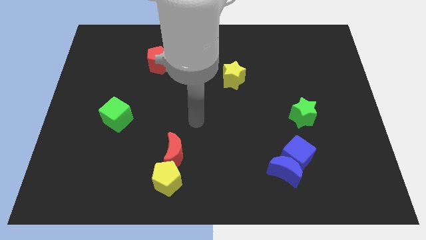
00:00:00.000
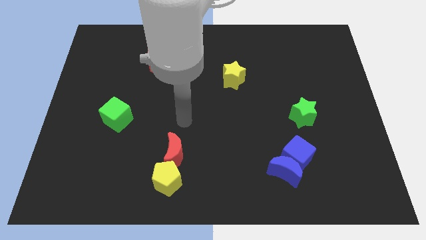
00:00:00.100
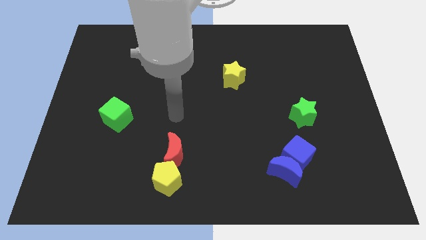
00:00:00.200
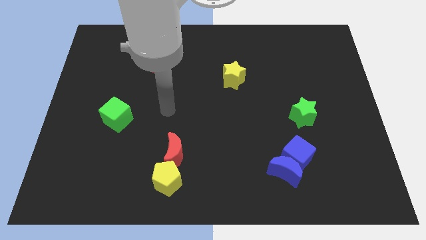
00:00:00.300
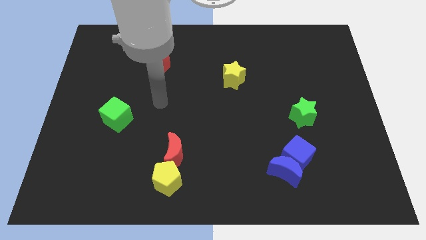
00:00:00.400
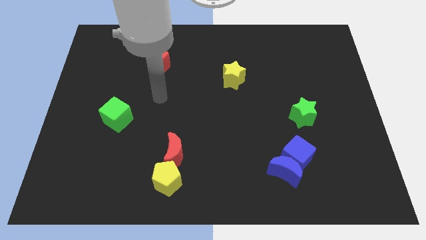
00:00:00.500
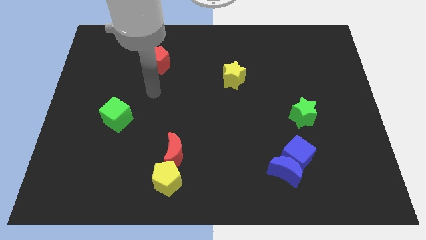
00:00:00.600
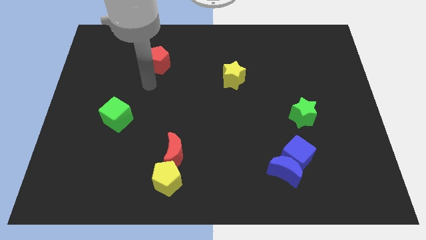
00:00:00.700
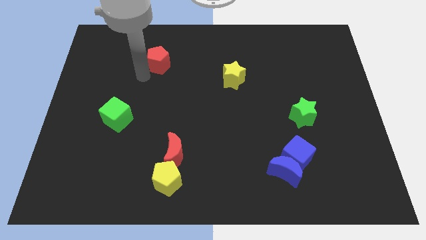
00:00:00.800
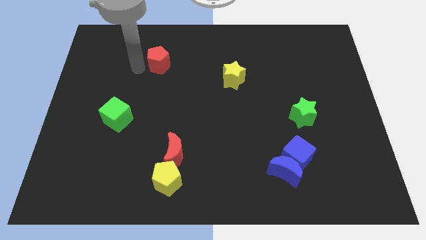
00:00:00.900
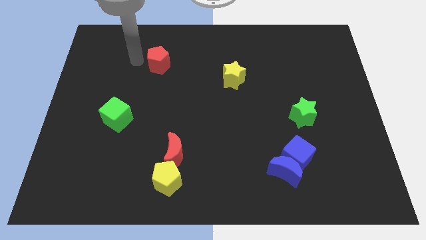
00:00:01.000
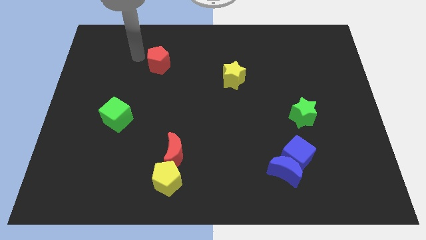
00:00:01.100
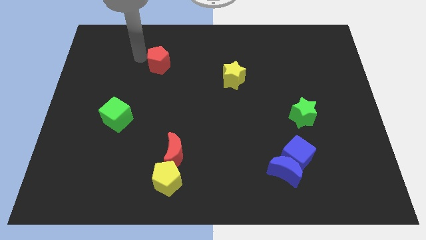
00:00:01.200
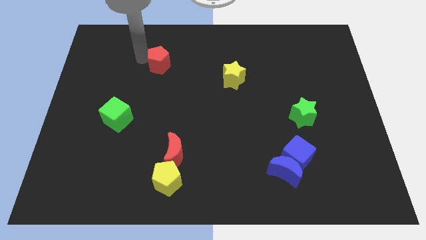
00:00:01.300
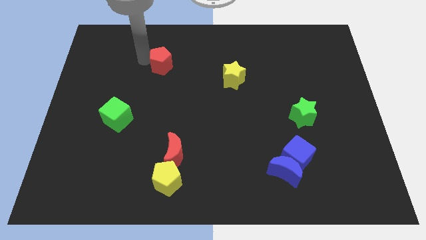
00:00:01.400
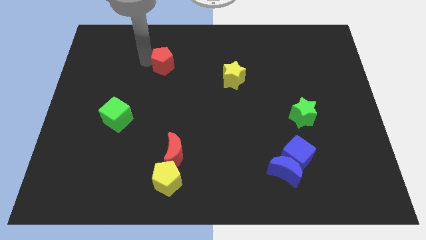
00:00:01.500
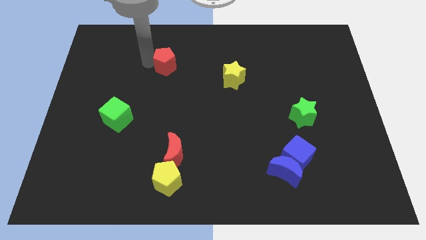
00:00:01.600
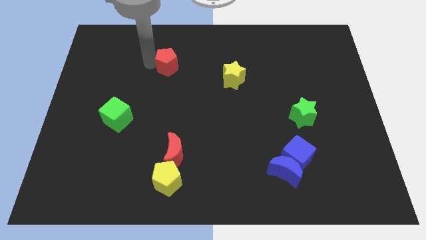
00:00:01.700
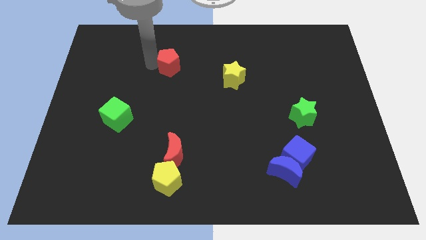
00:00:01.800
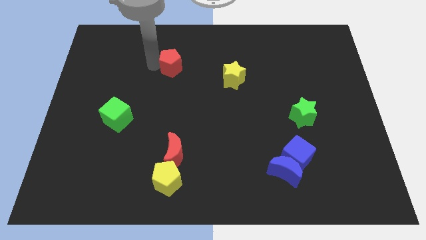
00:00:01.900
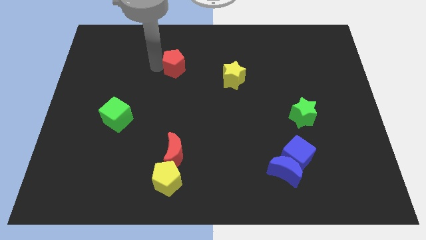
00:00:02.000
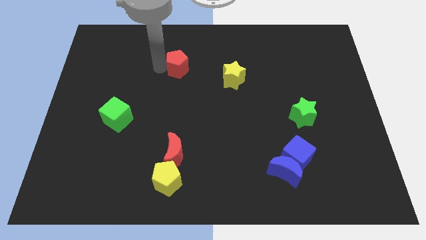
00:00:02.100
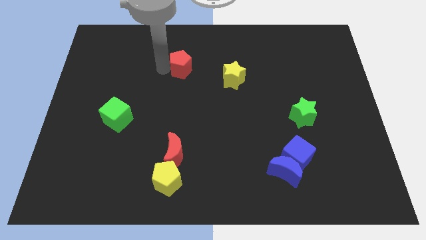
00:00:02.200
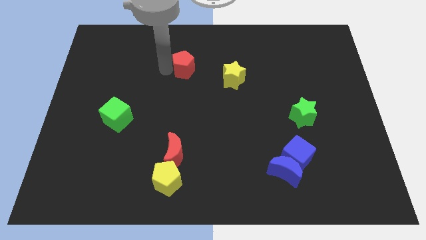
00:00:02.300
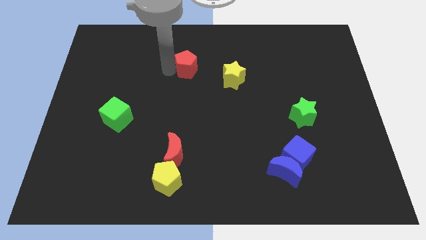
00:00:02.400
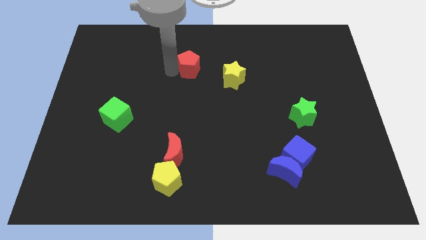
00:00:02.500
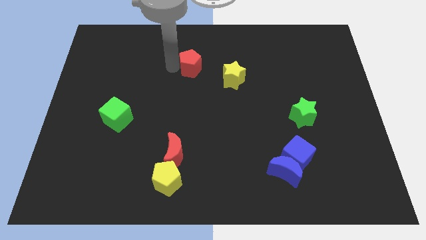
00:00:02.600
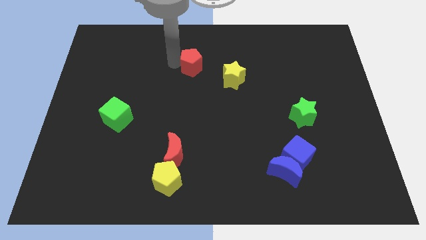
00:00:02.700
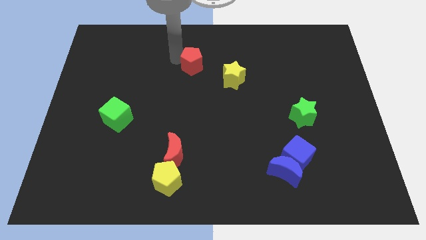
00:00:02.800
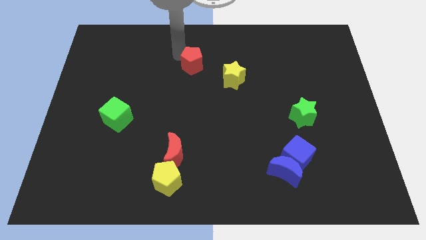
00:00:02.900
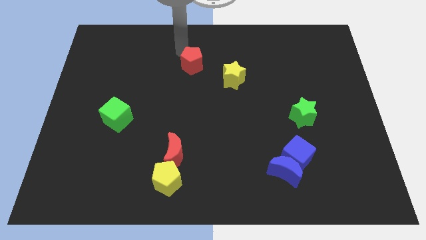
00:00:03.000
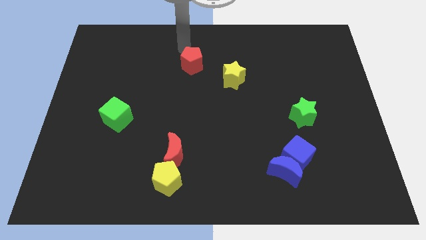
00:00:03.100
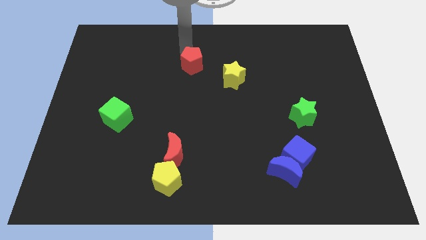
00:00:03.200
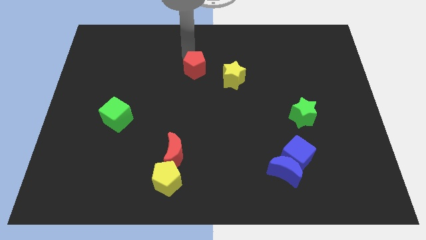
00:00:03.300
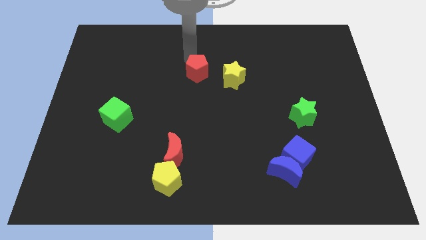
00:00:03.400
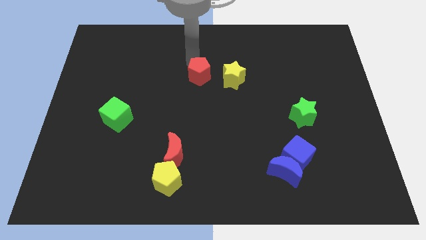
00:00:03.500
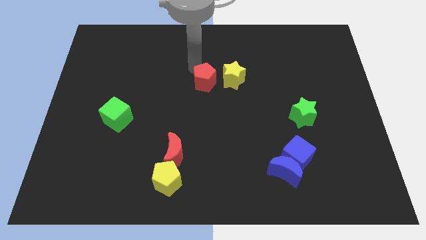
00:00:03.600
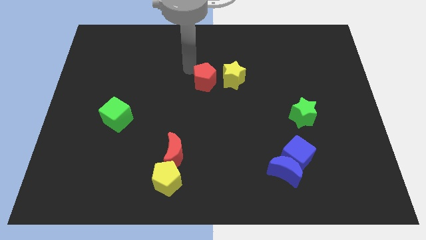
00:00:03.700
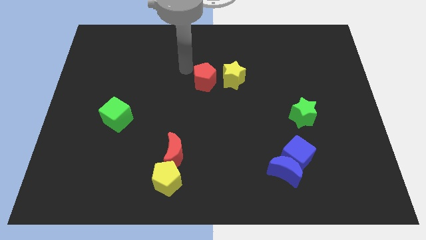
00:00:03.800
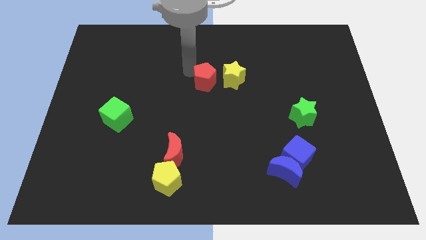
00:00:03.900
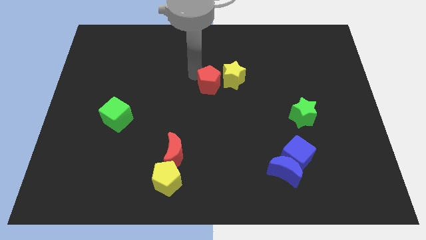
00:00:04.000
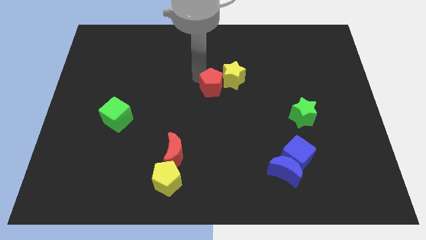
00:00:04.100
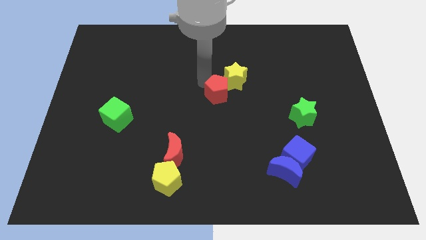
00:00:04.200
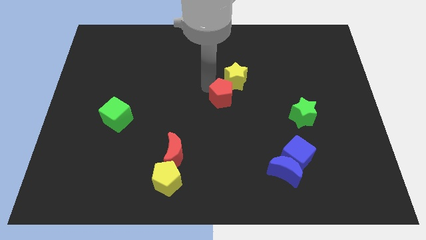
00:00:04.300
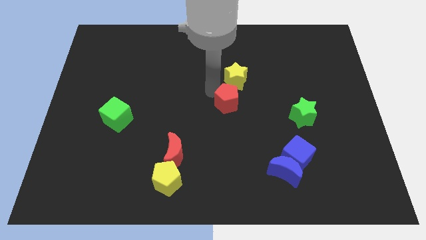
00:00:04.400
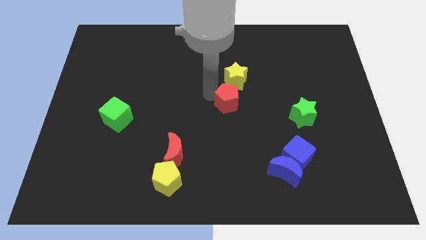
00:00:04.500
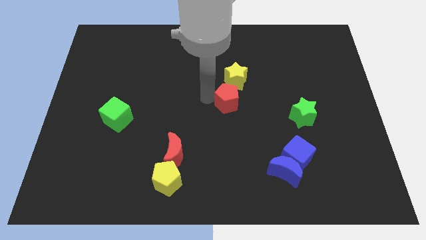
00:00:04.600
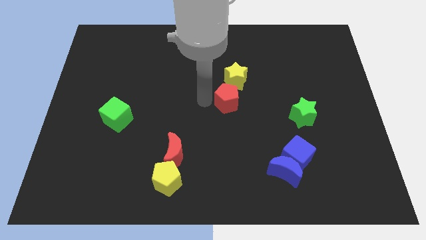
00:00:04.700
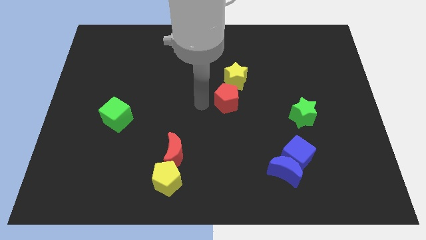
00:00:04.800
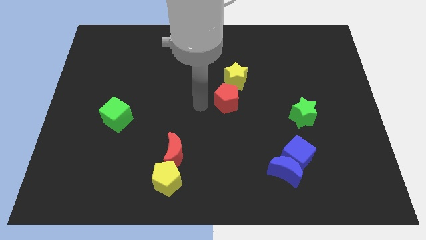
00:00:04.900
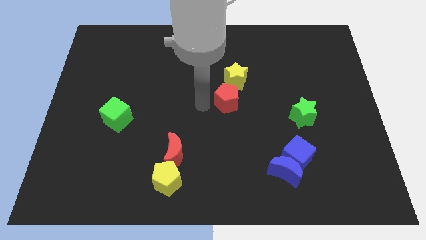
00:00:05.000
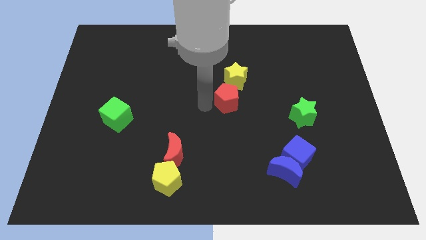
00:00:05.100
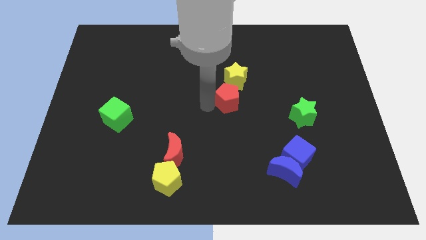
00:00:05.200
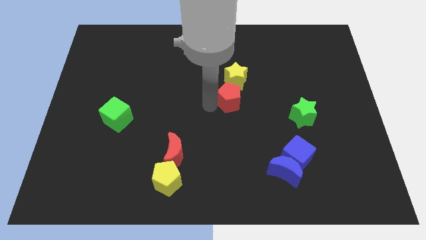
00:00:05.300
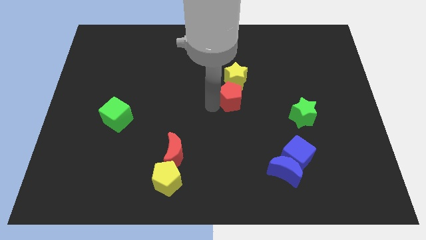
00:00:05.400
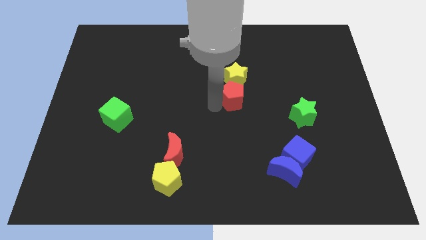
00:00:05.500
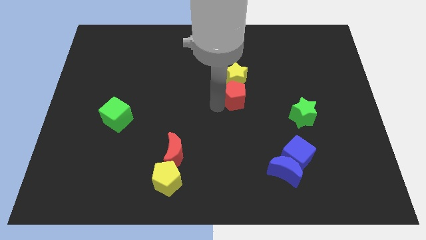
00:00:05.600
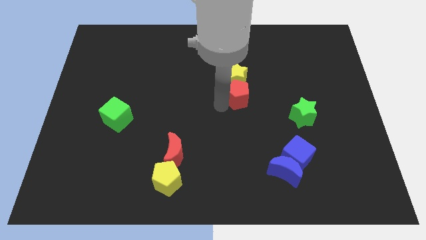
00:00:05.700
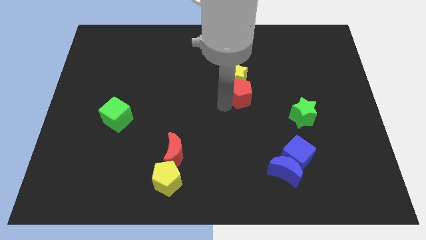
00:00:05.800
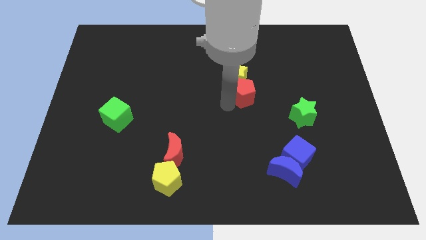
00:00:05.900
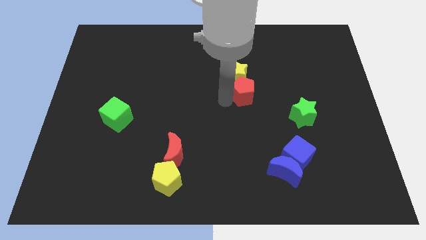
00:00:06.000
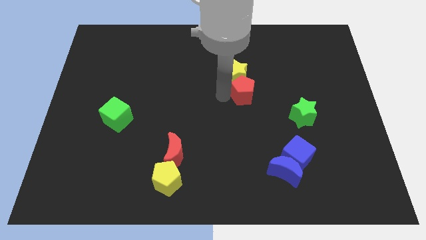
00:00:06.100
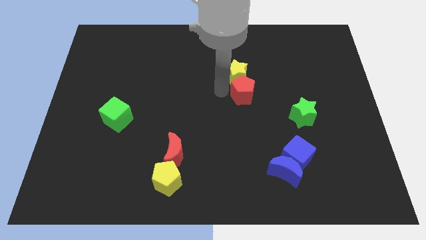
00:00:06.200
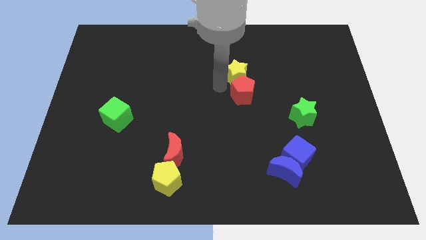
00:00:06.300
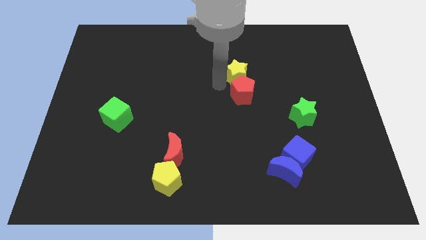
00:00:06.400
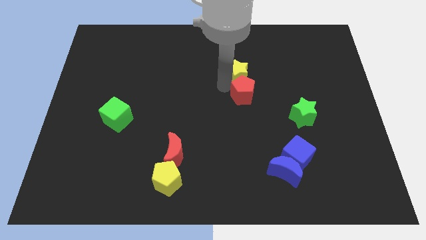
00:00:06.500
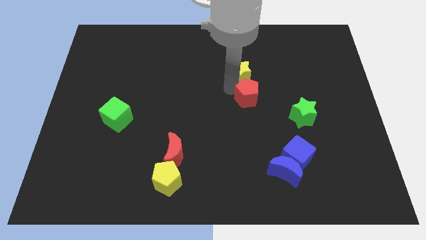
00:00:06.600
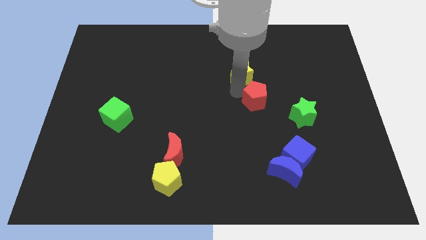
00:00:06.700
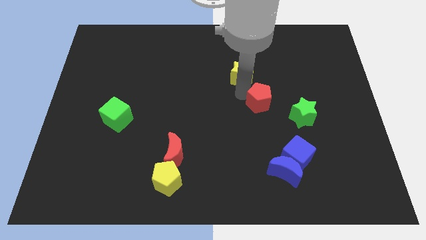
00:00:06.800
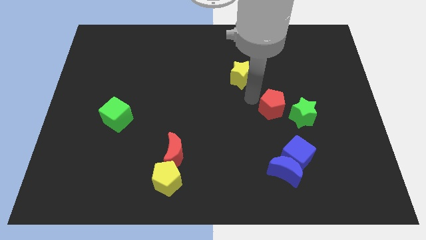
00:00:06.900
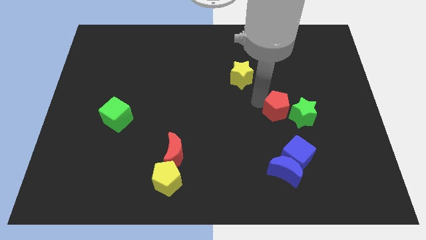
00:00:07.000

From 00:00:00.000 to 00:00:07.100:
move the red pentagon close to the green star
